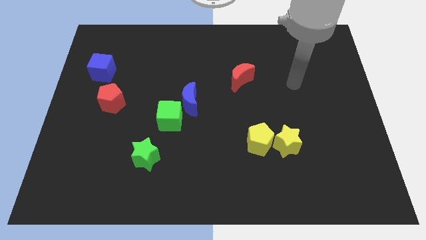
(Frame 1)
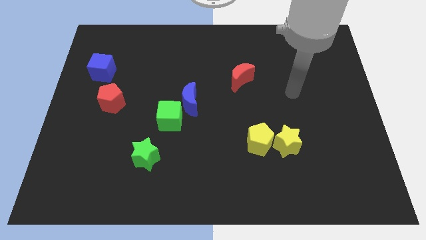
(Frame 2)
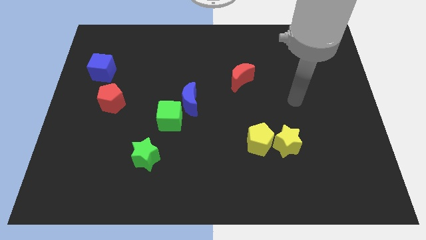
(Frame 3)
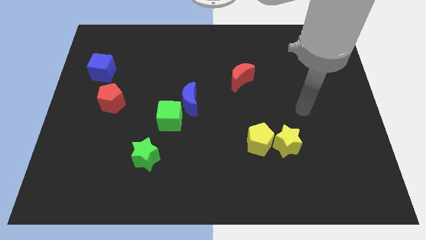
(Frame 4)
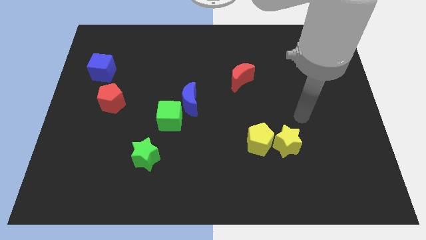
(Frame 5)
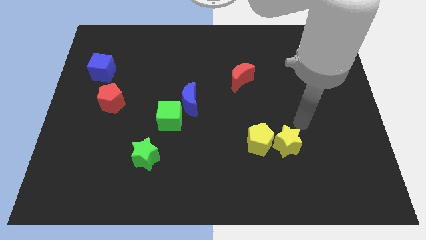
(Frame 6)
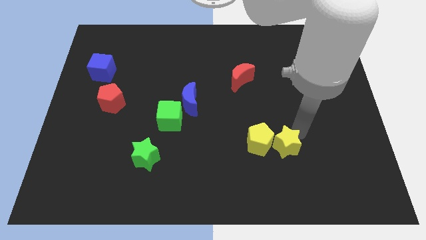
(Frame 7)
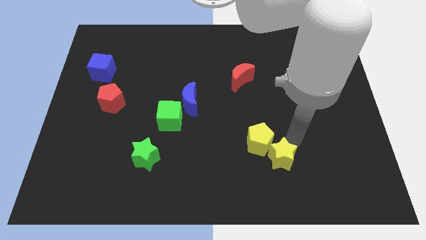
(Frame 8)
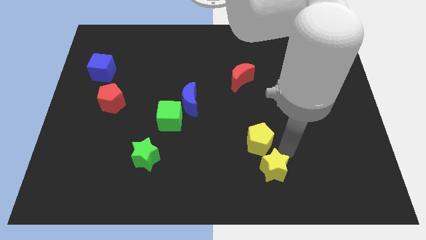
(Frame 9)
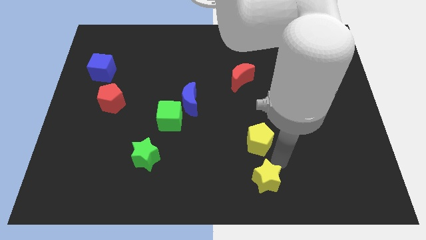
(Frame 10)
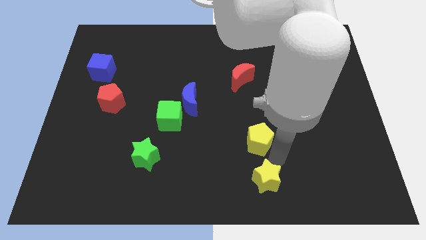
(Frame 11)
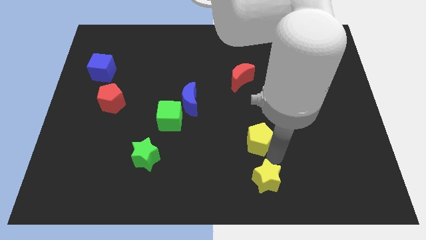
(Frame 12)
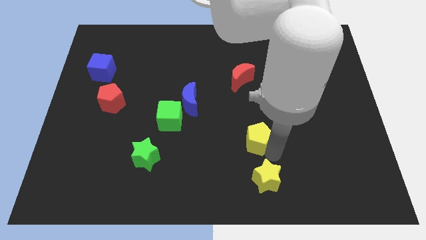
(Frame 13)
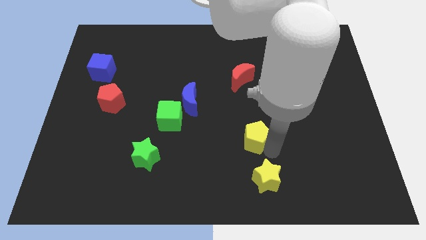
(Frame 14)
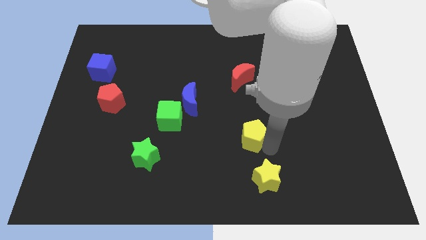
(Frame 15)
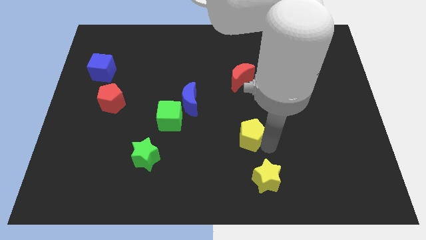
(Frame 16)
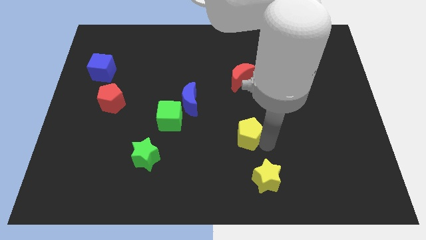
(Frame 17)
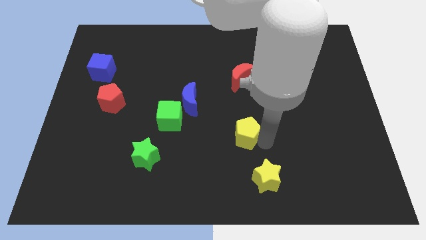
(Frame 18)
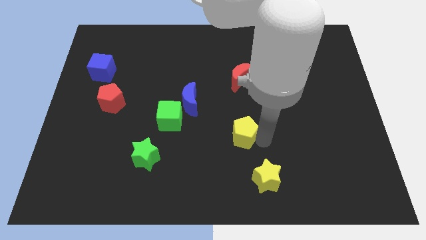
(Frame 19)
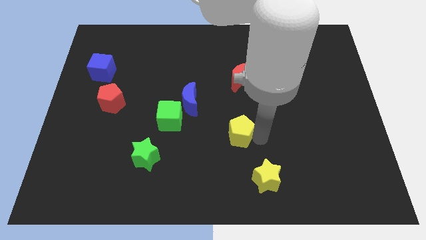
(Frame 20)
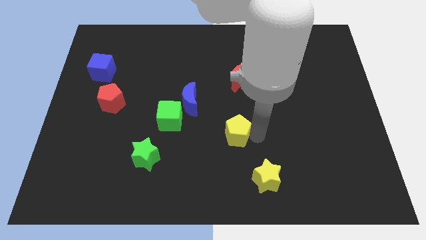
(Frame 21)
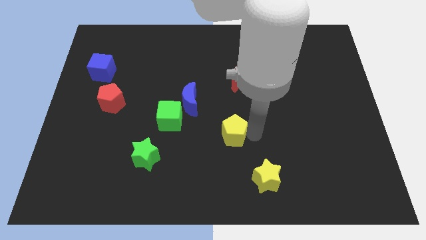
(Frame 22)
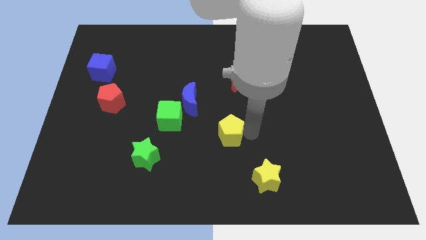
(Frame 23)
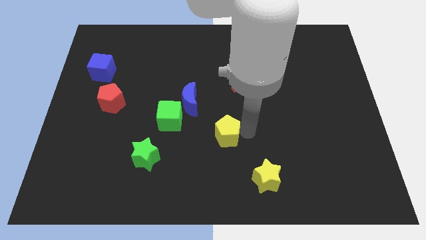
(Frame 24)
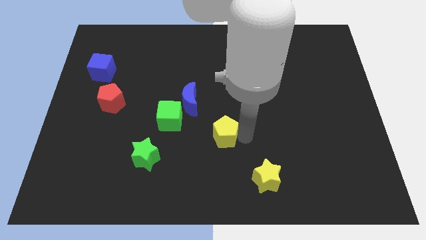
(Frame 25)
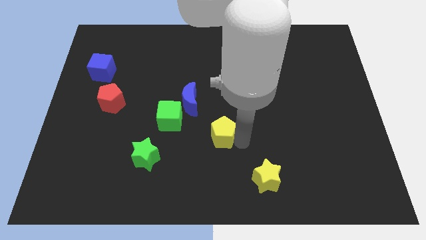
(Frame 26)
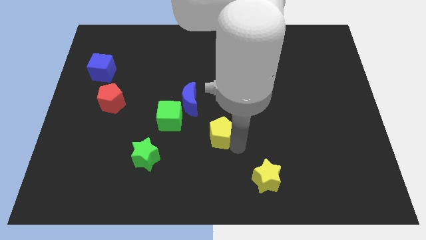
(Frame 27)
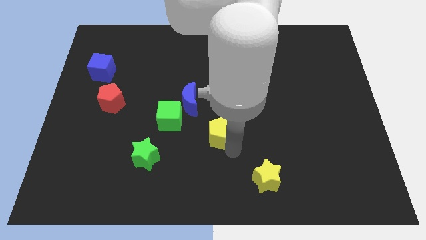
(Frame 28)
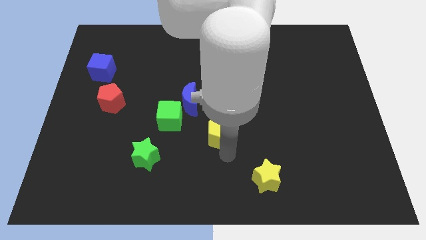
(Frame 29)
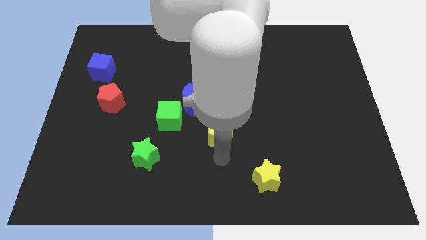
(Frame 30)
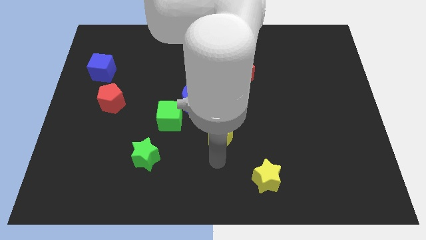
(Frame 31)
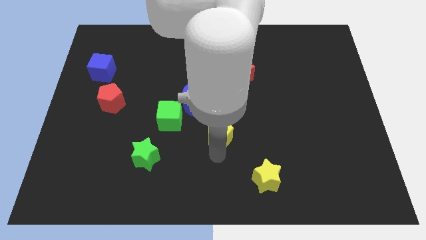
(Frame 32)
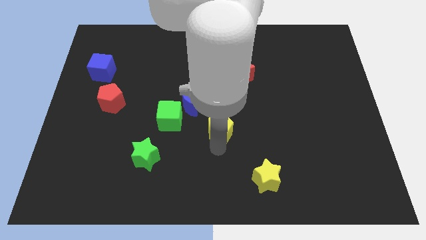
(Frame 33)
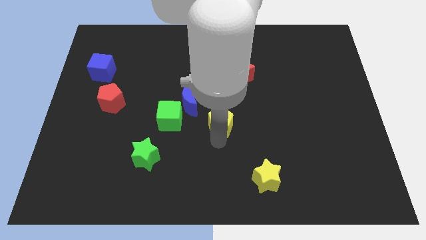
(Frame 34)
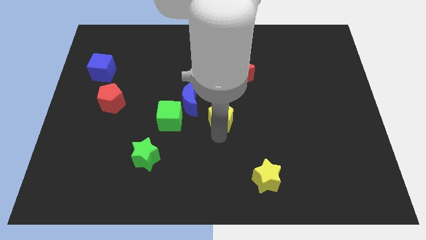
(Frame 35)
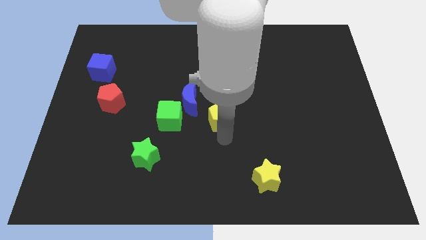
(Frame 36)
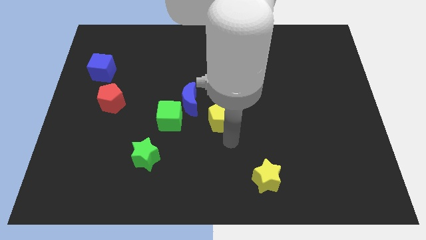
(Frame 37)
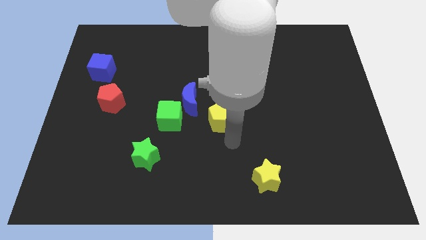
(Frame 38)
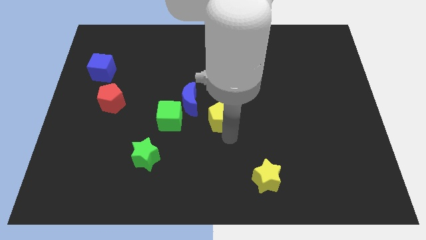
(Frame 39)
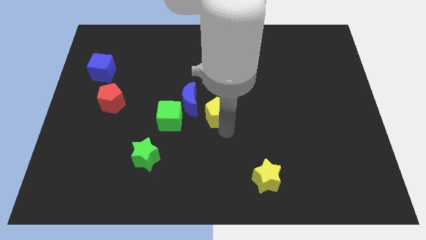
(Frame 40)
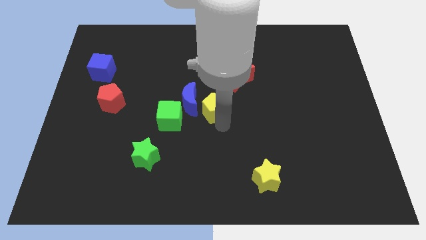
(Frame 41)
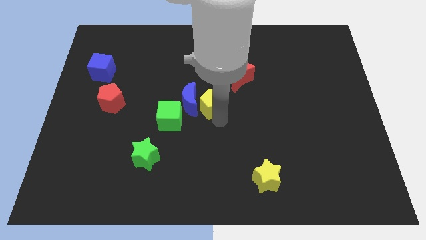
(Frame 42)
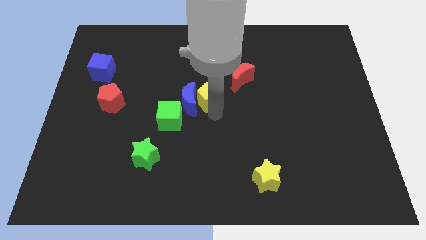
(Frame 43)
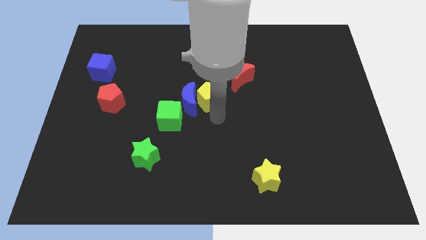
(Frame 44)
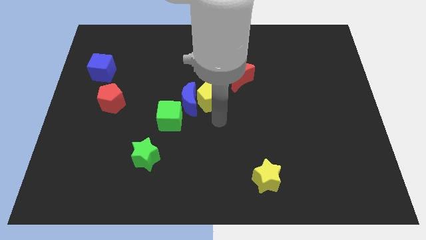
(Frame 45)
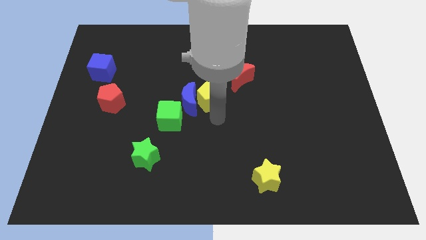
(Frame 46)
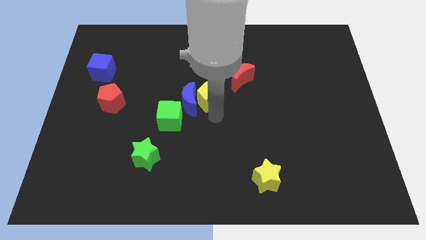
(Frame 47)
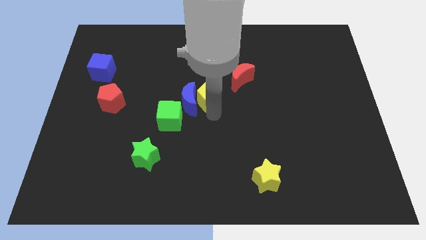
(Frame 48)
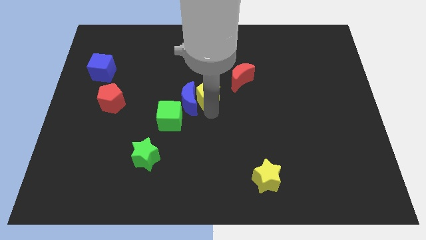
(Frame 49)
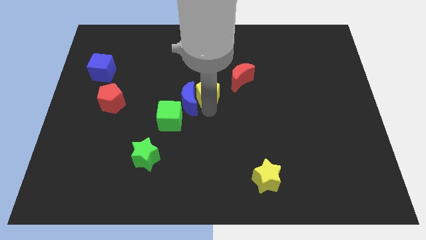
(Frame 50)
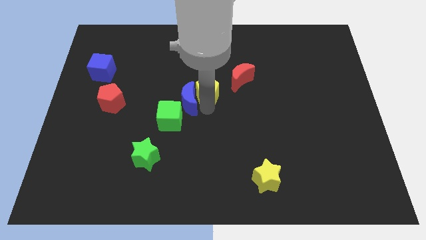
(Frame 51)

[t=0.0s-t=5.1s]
push the yellow pentagon to the left of the red moon

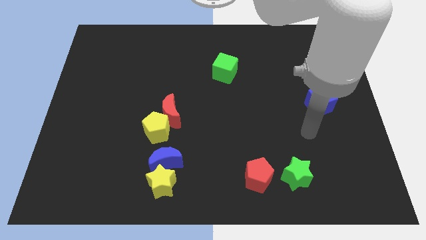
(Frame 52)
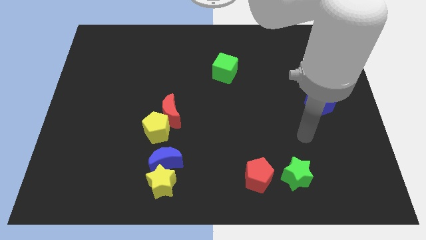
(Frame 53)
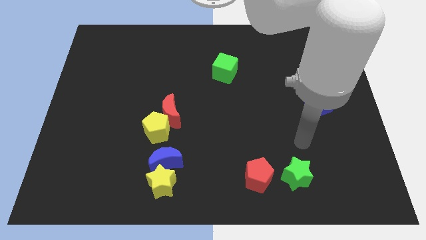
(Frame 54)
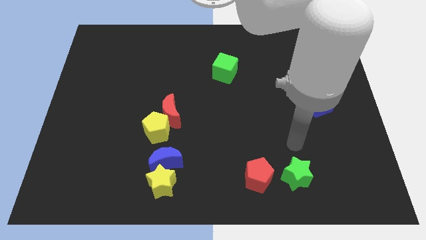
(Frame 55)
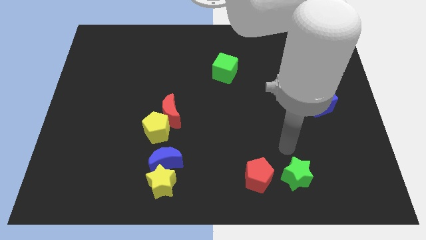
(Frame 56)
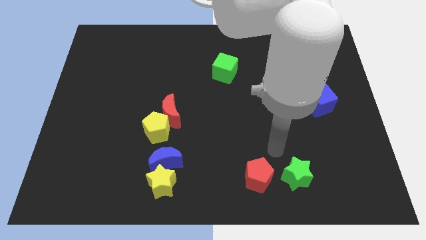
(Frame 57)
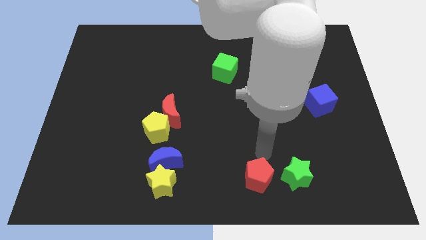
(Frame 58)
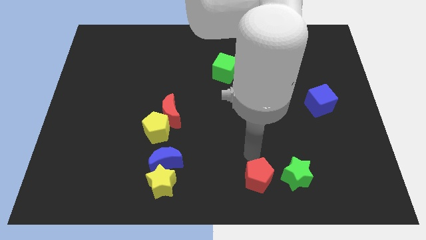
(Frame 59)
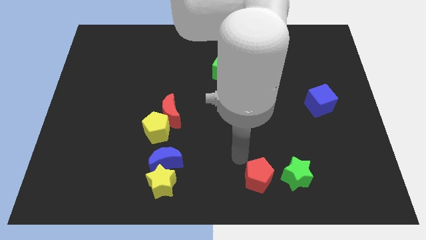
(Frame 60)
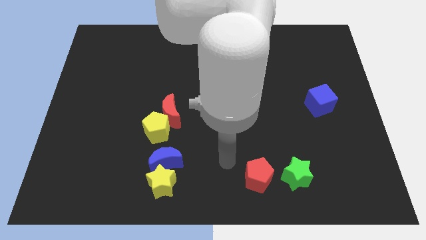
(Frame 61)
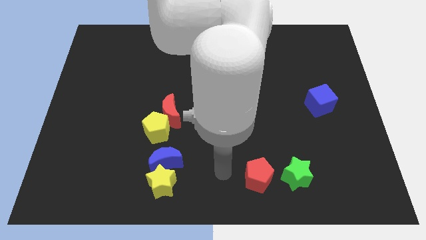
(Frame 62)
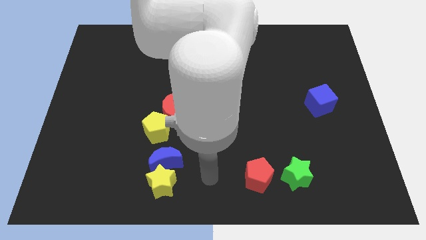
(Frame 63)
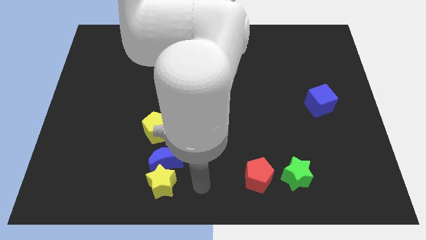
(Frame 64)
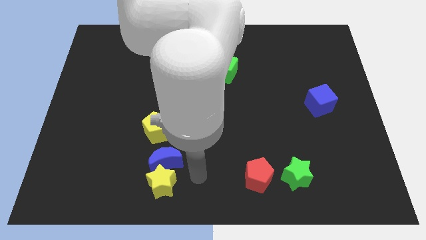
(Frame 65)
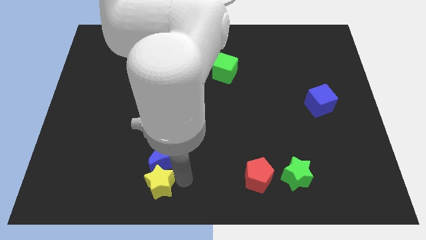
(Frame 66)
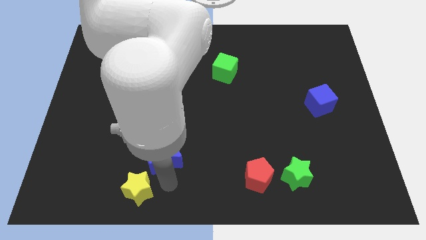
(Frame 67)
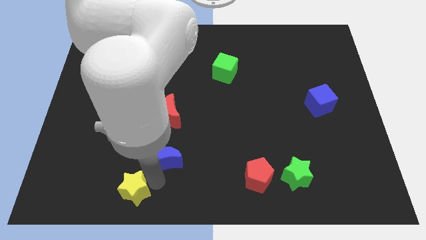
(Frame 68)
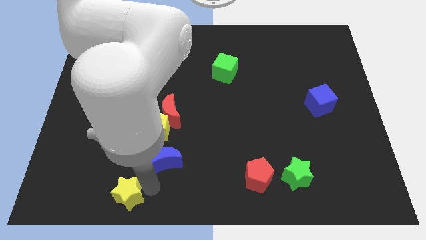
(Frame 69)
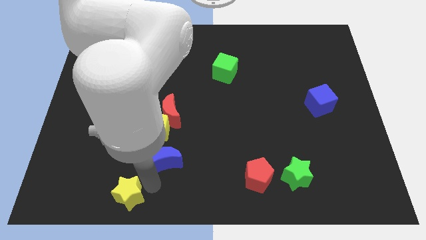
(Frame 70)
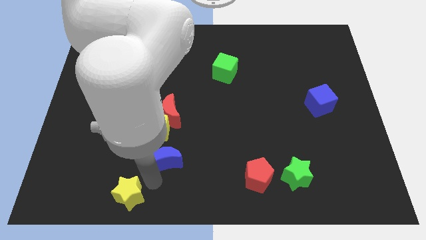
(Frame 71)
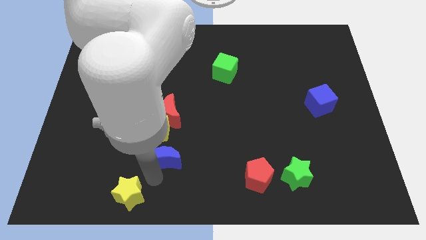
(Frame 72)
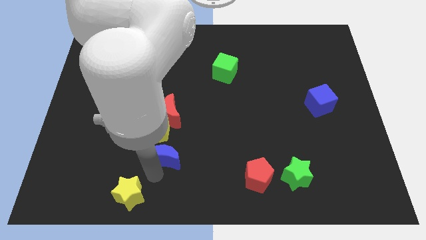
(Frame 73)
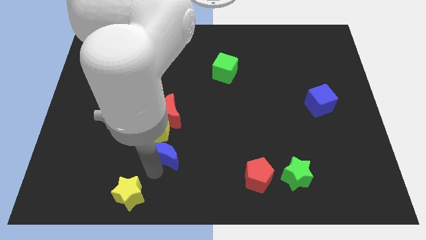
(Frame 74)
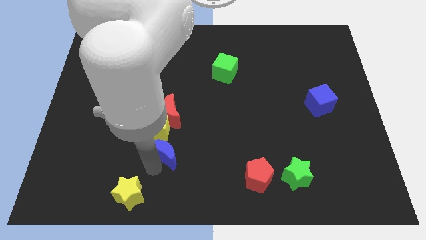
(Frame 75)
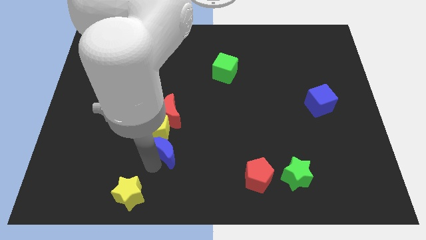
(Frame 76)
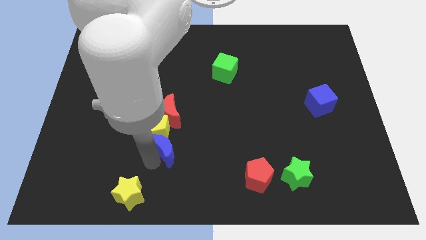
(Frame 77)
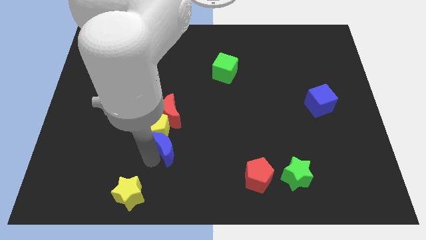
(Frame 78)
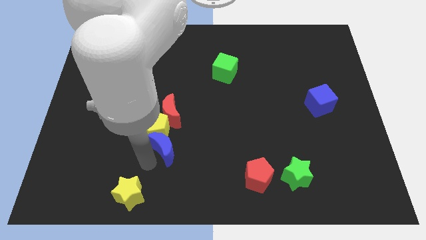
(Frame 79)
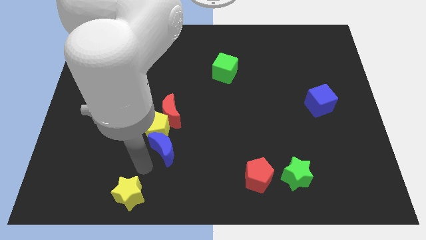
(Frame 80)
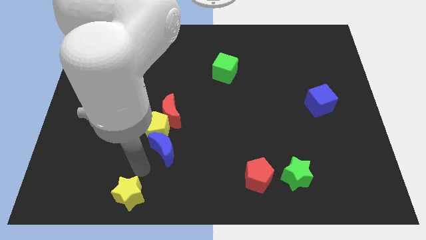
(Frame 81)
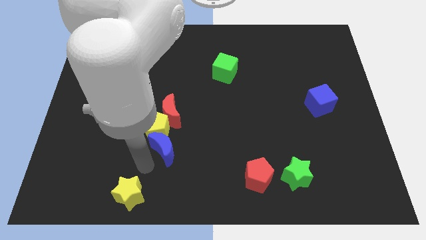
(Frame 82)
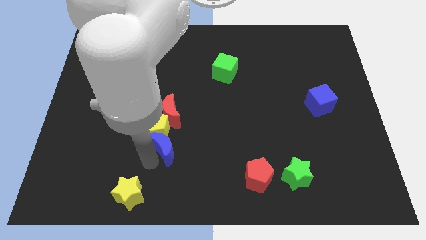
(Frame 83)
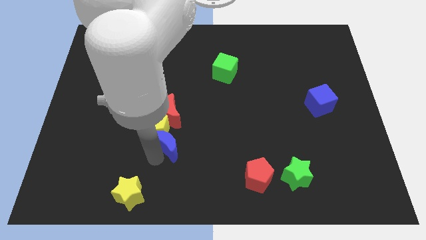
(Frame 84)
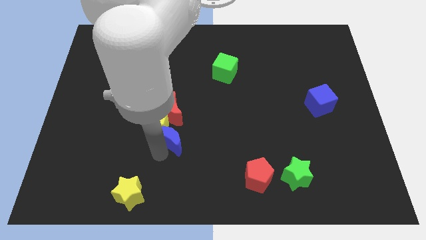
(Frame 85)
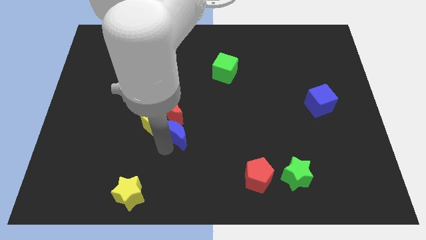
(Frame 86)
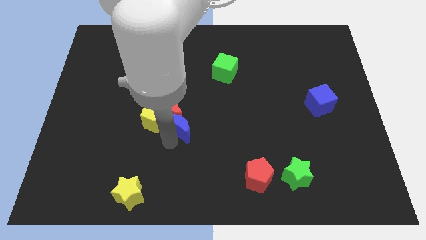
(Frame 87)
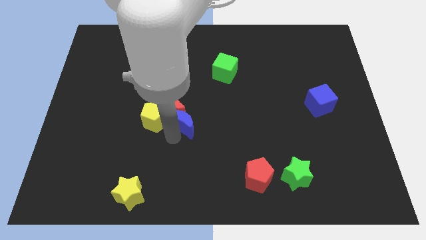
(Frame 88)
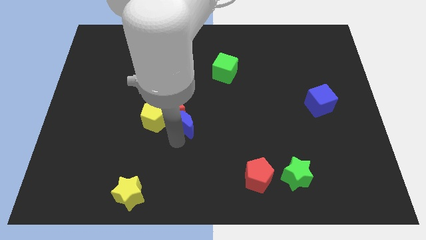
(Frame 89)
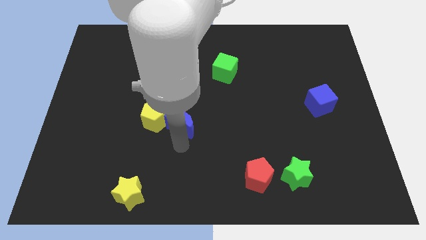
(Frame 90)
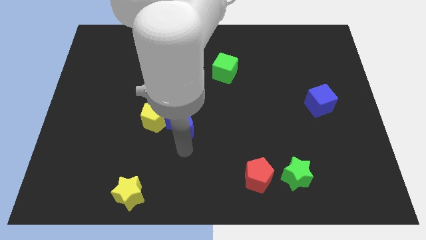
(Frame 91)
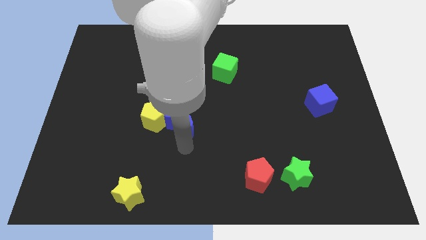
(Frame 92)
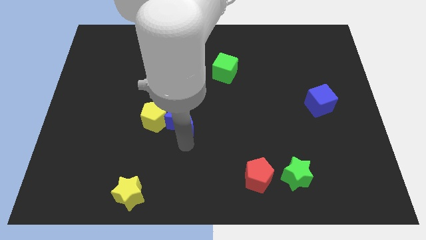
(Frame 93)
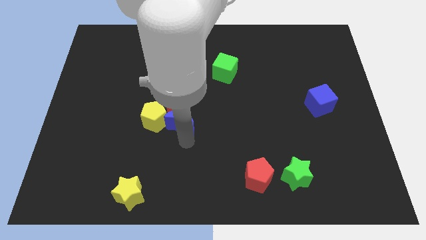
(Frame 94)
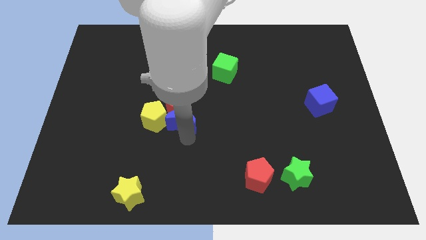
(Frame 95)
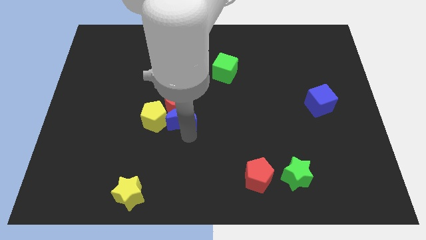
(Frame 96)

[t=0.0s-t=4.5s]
push the blue moon to the top right of the yellow pentagon
